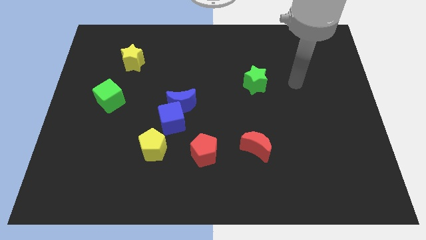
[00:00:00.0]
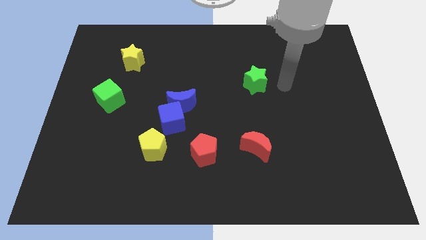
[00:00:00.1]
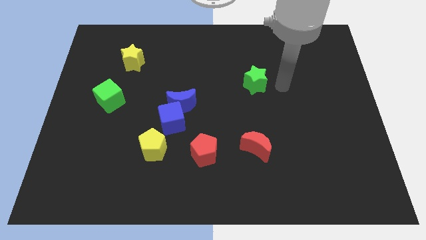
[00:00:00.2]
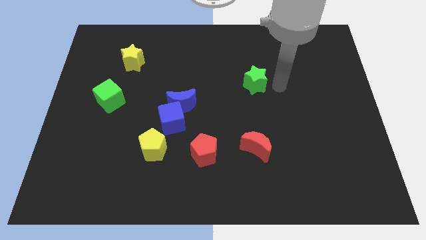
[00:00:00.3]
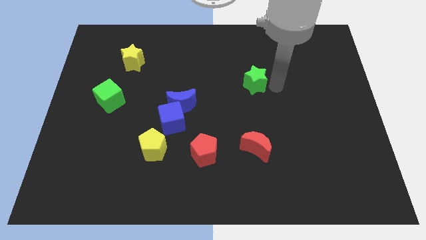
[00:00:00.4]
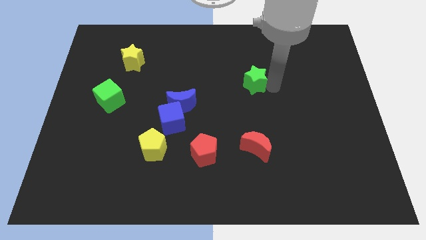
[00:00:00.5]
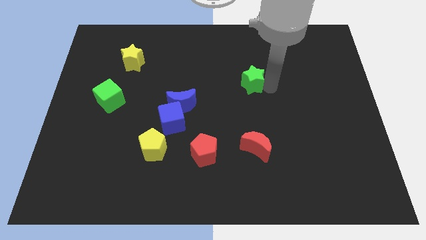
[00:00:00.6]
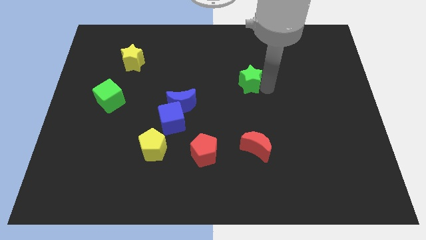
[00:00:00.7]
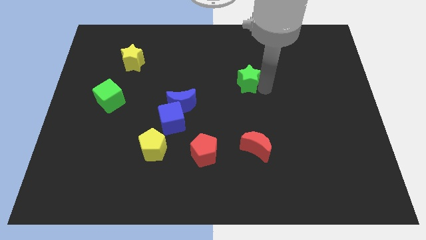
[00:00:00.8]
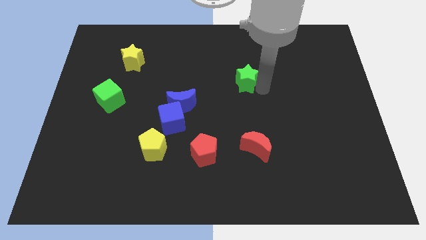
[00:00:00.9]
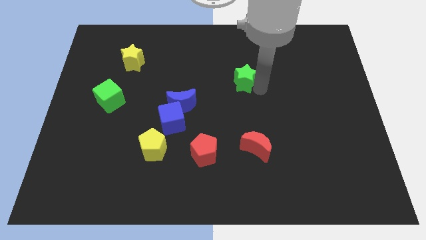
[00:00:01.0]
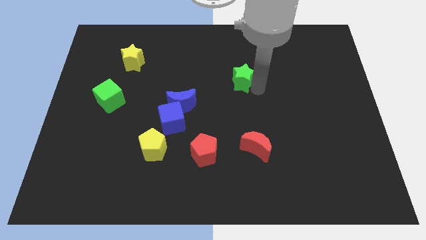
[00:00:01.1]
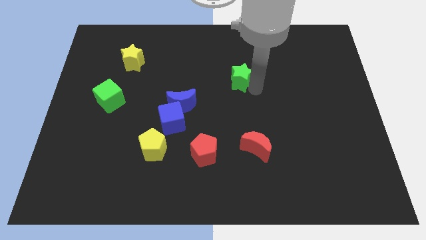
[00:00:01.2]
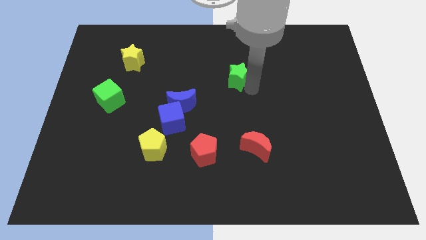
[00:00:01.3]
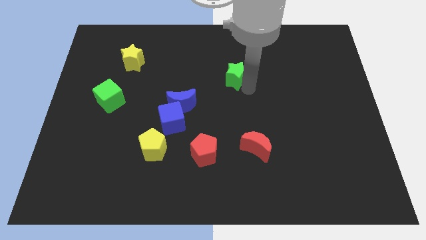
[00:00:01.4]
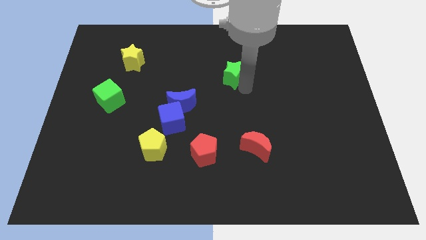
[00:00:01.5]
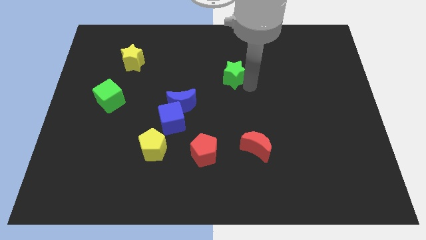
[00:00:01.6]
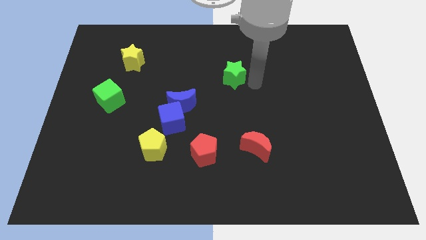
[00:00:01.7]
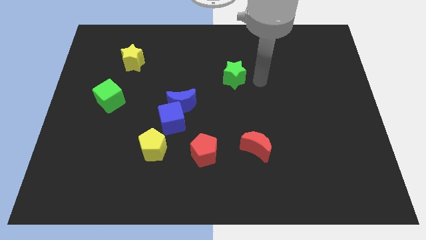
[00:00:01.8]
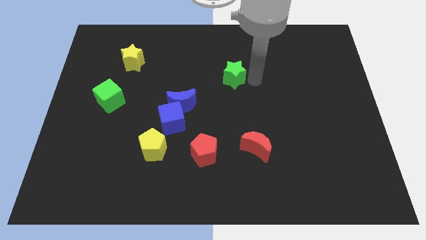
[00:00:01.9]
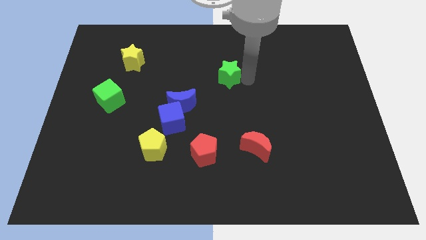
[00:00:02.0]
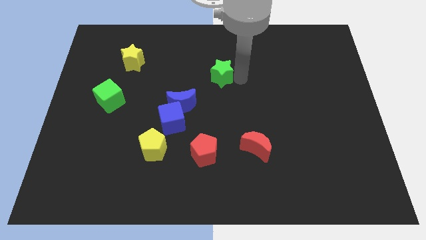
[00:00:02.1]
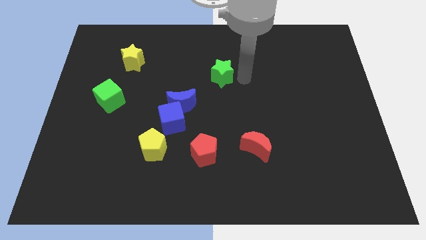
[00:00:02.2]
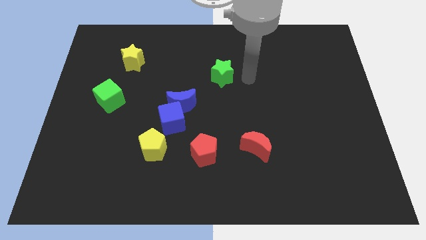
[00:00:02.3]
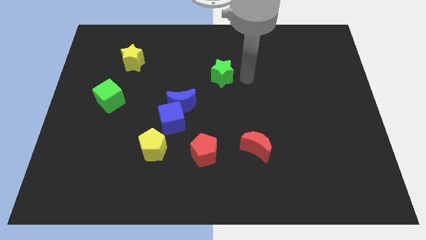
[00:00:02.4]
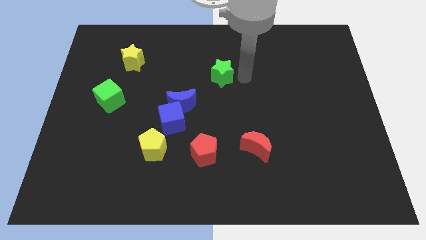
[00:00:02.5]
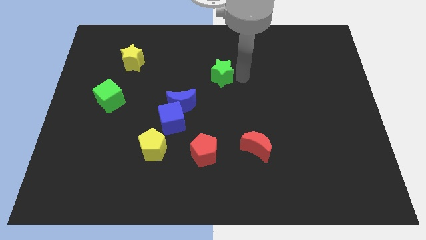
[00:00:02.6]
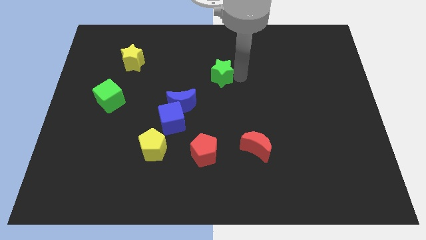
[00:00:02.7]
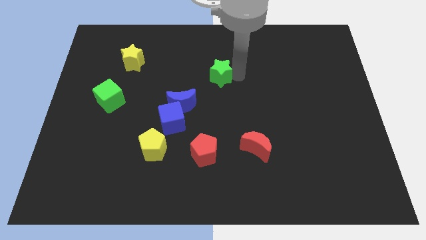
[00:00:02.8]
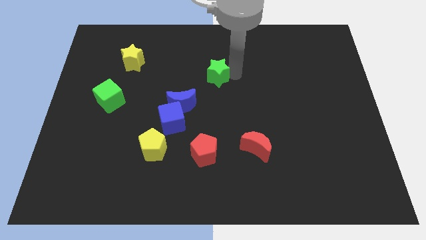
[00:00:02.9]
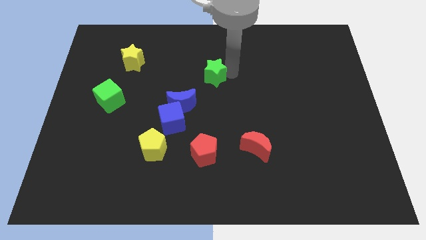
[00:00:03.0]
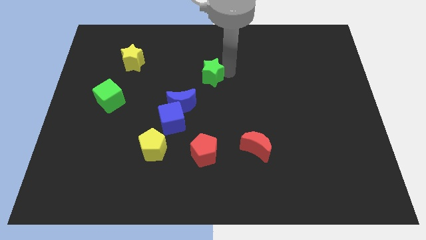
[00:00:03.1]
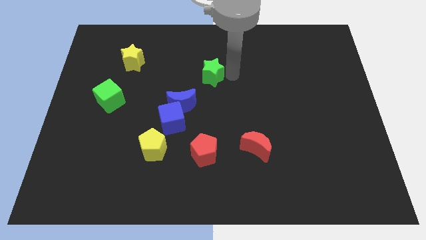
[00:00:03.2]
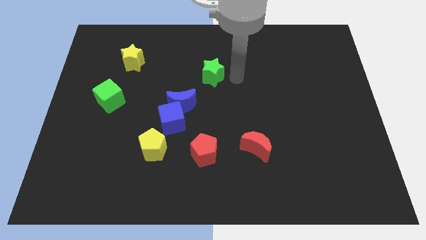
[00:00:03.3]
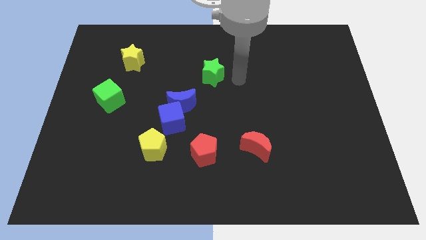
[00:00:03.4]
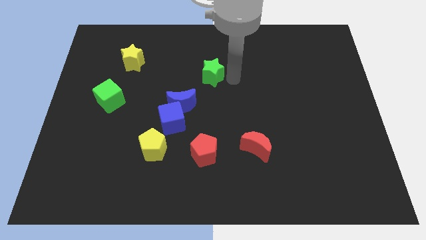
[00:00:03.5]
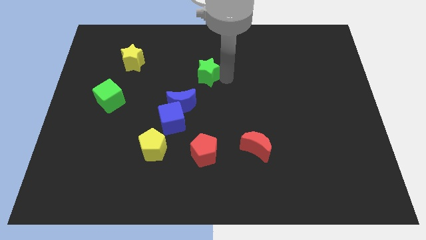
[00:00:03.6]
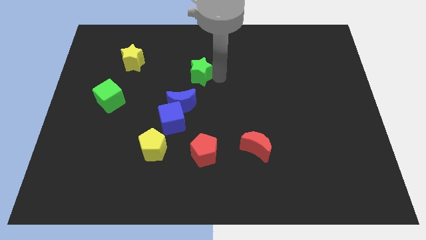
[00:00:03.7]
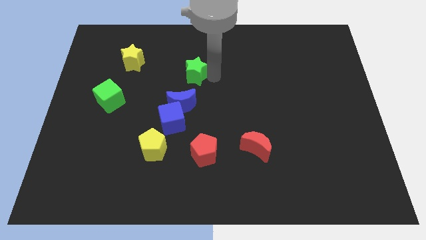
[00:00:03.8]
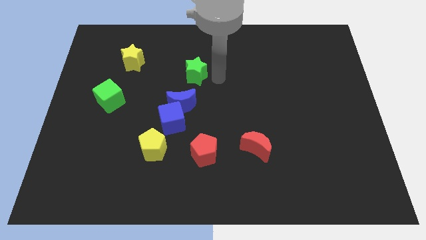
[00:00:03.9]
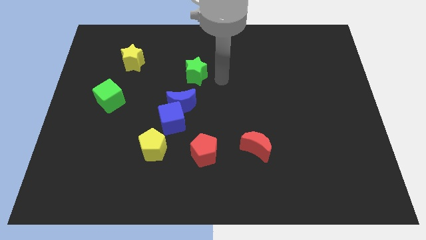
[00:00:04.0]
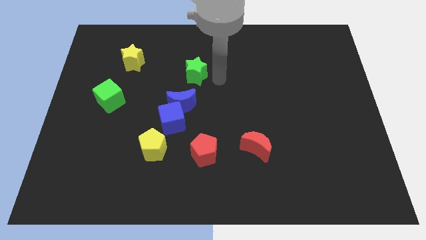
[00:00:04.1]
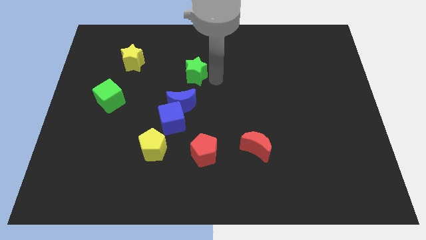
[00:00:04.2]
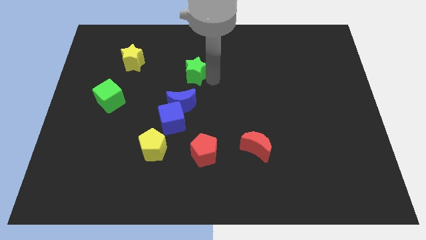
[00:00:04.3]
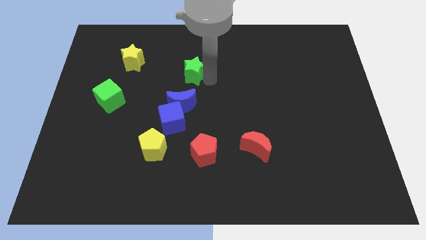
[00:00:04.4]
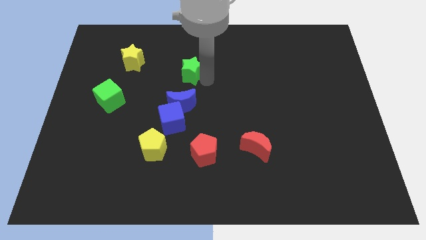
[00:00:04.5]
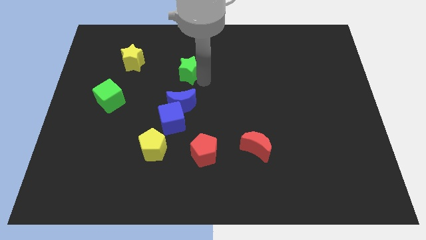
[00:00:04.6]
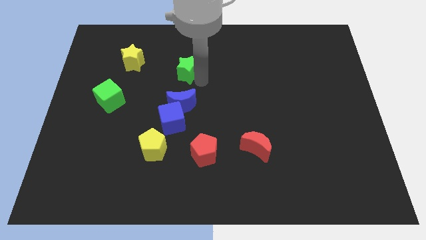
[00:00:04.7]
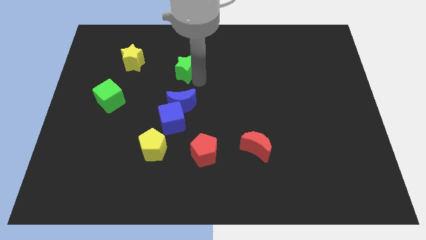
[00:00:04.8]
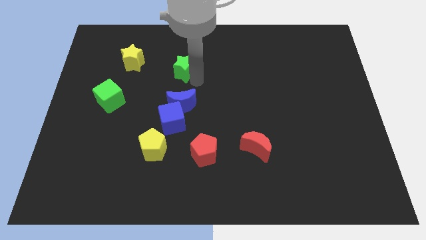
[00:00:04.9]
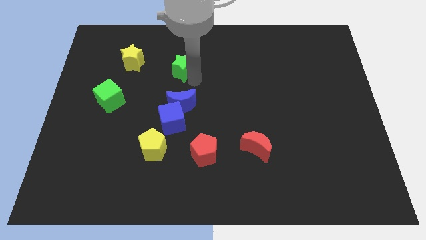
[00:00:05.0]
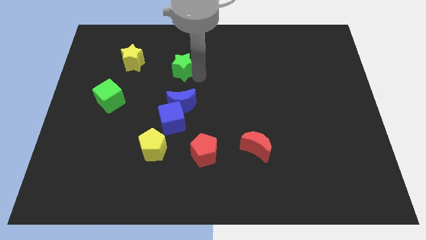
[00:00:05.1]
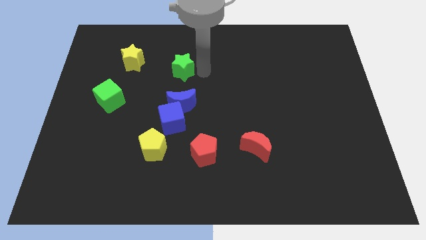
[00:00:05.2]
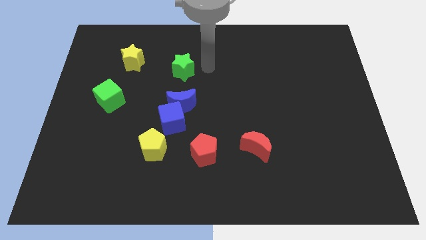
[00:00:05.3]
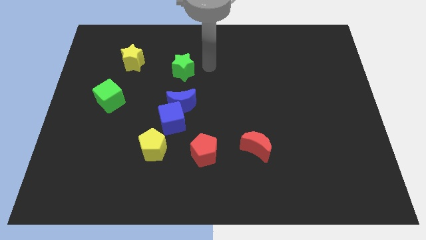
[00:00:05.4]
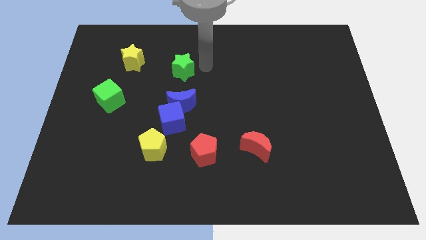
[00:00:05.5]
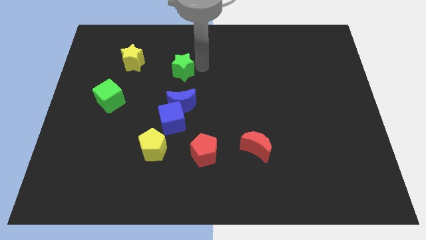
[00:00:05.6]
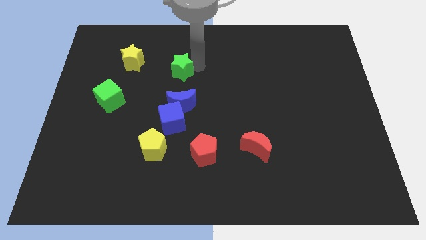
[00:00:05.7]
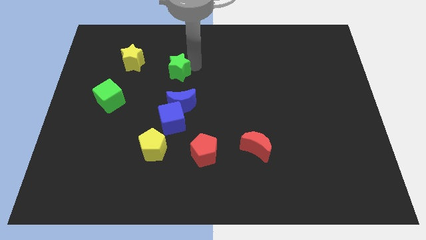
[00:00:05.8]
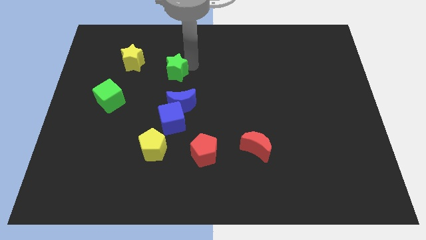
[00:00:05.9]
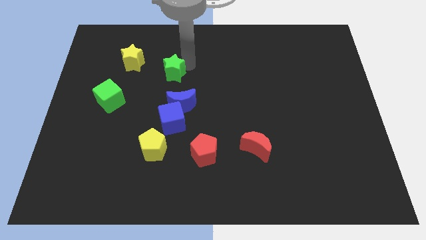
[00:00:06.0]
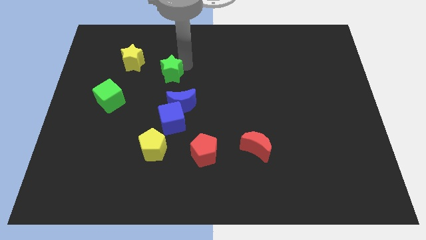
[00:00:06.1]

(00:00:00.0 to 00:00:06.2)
push the green star to the bottom right side of the yellow star
